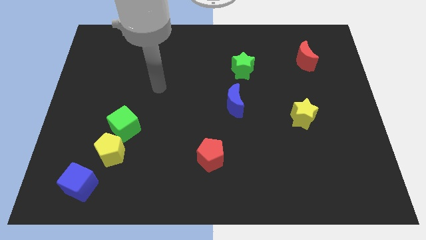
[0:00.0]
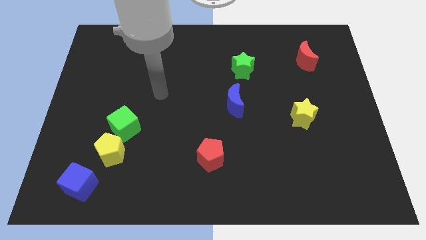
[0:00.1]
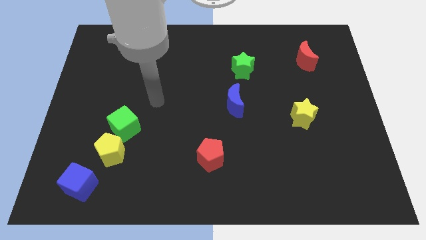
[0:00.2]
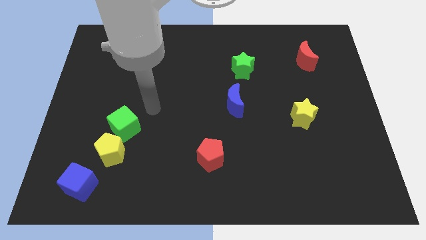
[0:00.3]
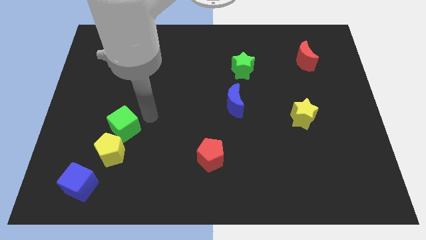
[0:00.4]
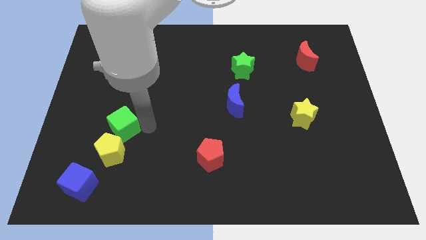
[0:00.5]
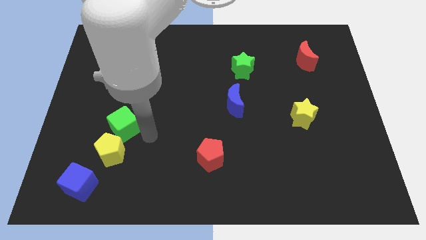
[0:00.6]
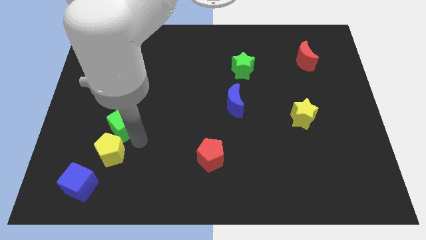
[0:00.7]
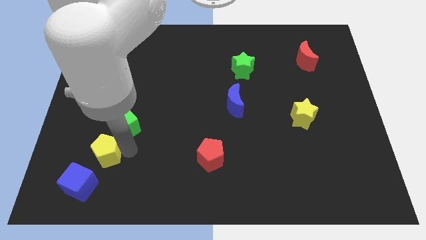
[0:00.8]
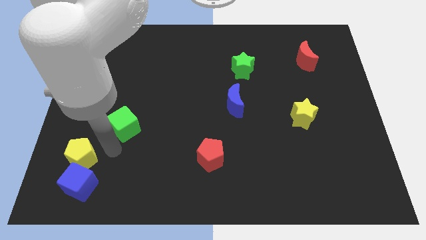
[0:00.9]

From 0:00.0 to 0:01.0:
move the green cube away from the yellow pentagon

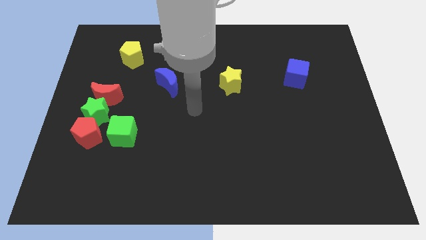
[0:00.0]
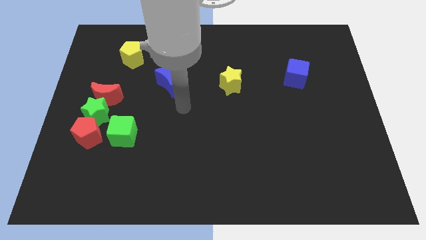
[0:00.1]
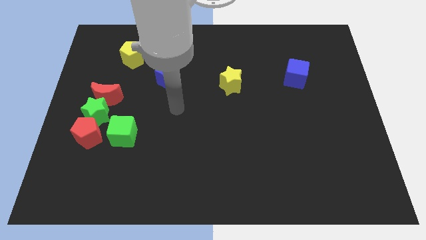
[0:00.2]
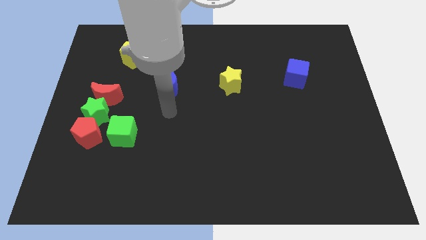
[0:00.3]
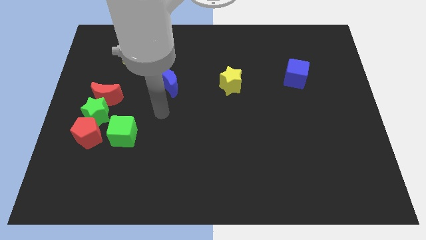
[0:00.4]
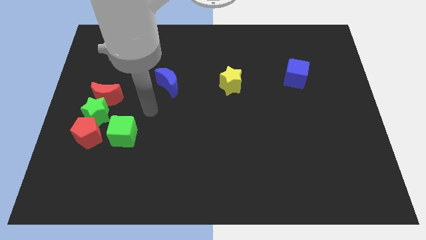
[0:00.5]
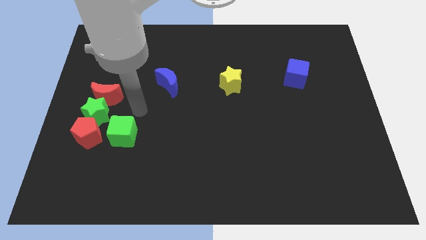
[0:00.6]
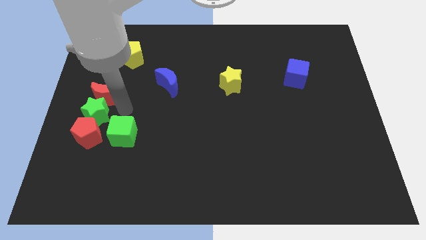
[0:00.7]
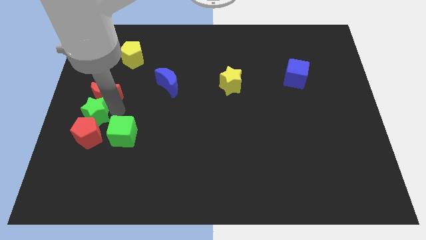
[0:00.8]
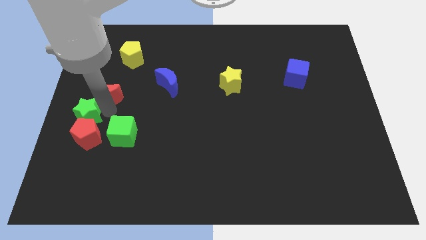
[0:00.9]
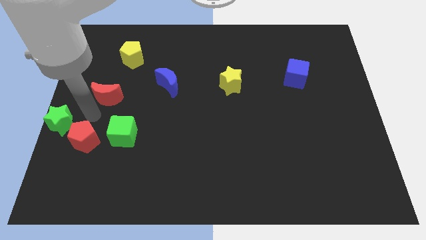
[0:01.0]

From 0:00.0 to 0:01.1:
separate the red moon from the green star

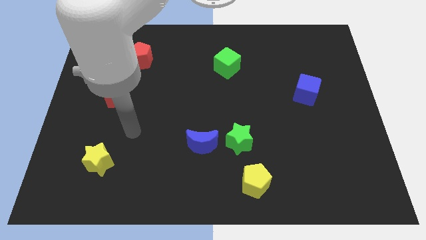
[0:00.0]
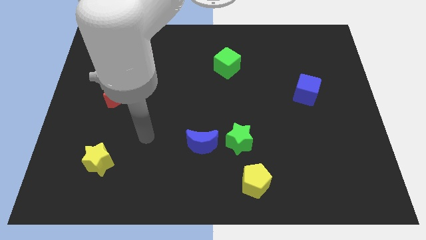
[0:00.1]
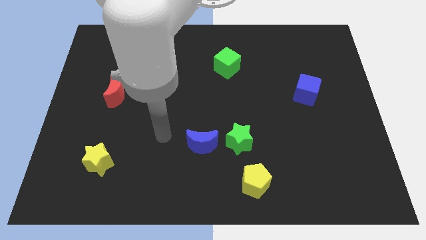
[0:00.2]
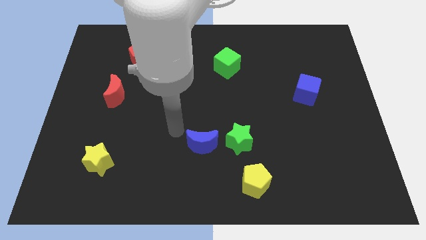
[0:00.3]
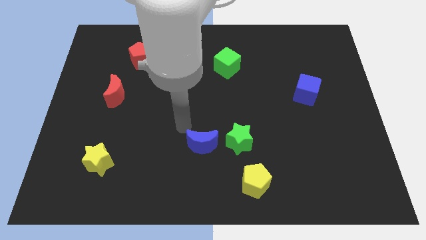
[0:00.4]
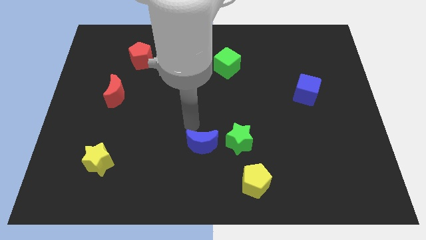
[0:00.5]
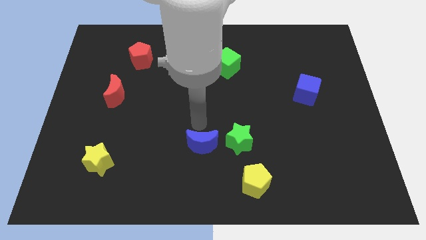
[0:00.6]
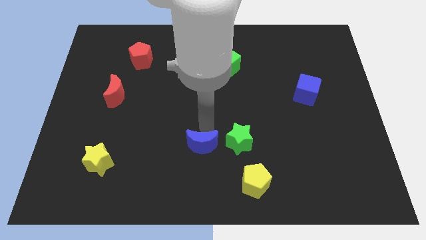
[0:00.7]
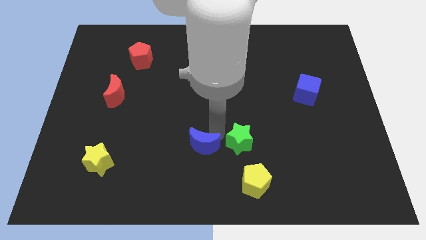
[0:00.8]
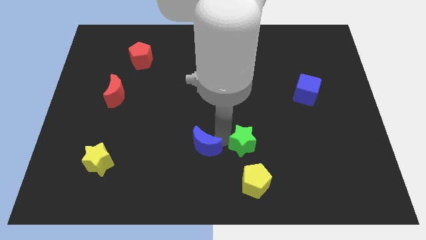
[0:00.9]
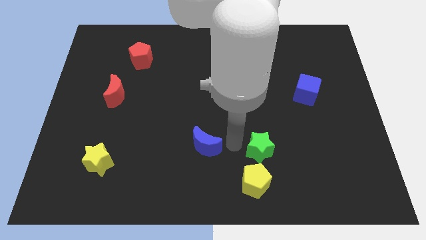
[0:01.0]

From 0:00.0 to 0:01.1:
separate the blue moon from the green star

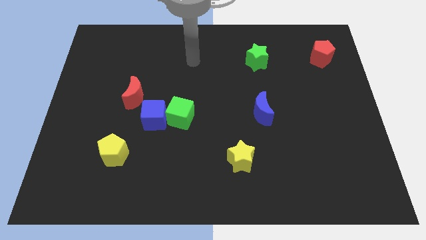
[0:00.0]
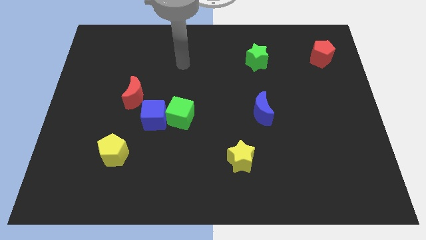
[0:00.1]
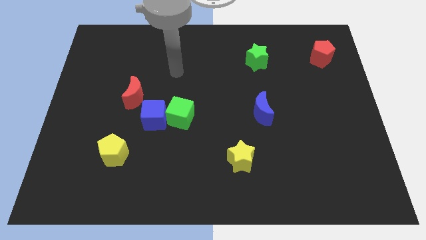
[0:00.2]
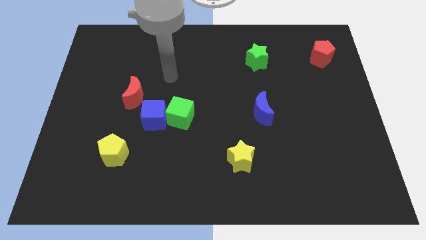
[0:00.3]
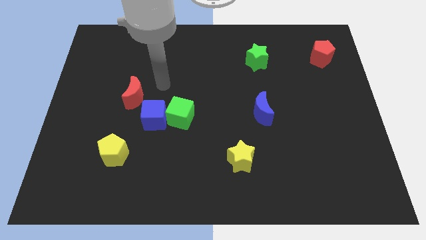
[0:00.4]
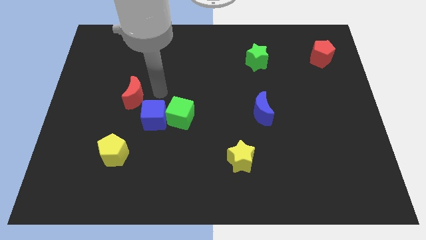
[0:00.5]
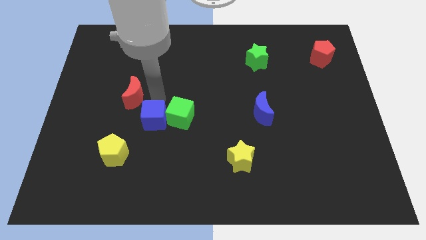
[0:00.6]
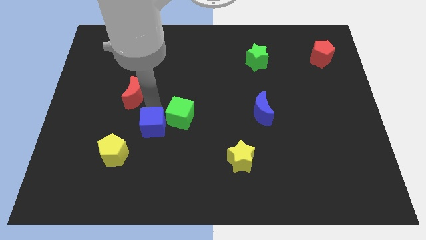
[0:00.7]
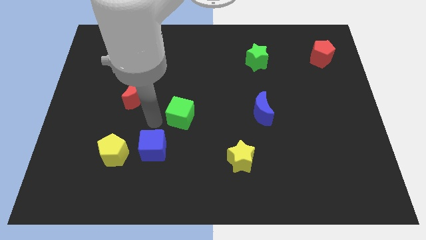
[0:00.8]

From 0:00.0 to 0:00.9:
separate the green cube from the blue cube

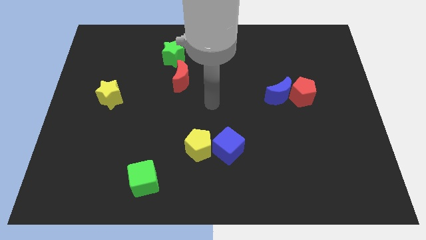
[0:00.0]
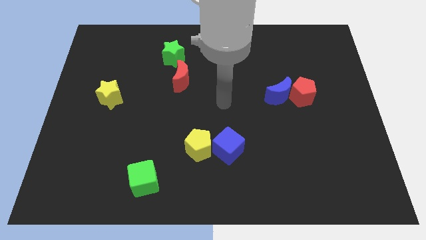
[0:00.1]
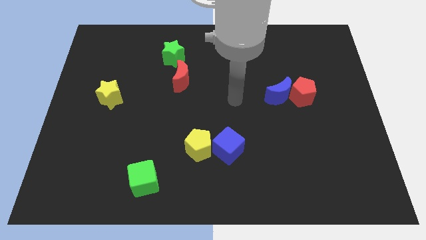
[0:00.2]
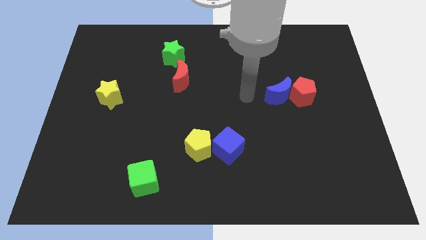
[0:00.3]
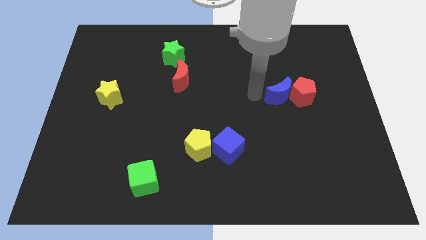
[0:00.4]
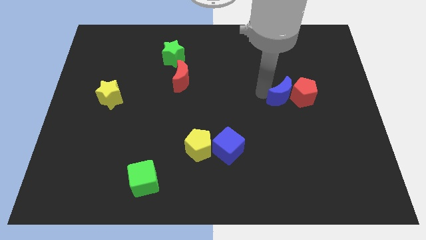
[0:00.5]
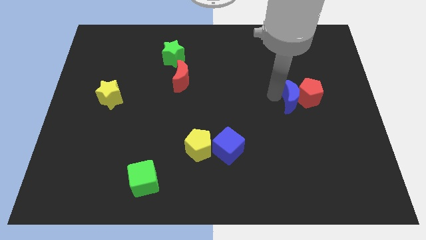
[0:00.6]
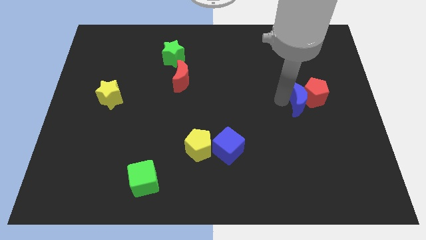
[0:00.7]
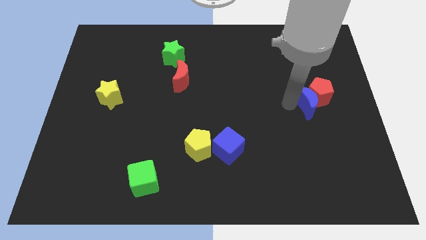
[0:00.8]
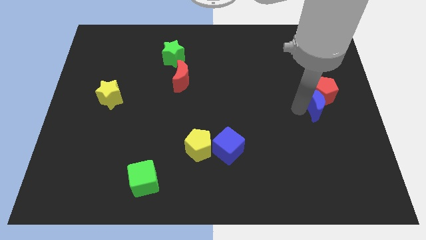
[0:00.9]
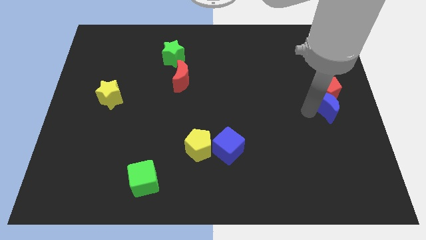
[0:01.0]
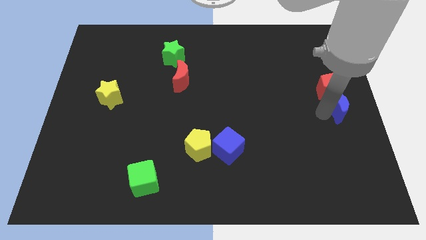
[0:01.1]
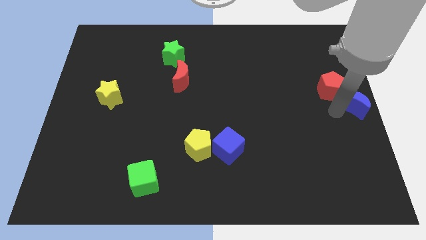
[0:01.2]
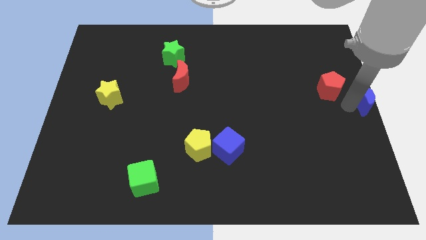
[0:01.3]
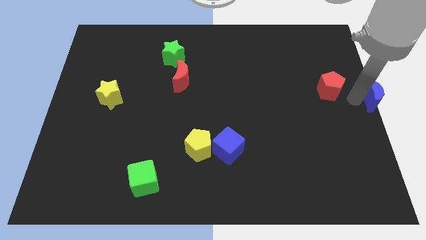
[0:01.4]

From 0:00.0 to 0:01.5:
move the red pentagon away from the blue moon

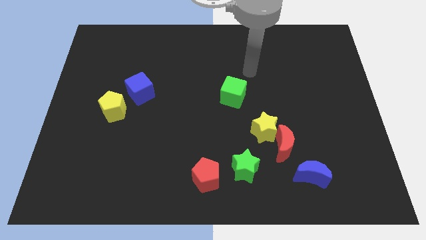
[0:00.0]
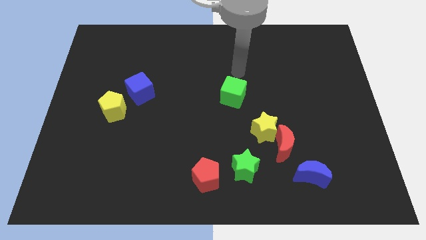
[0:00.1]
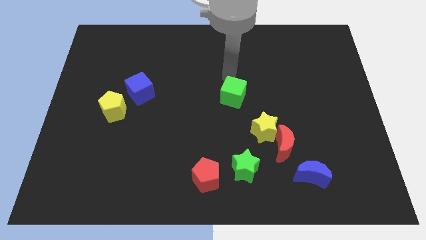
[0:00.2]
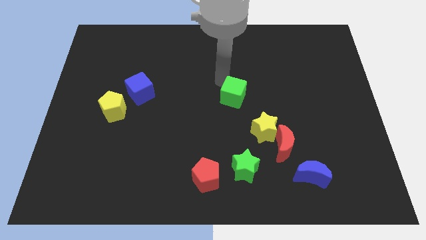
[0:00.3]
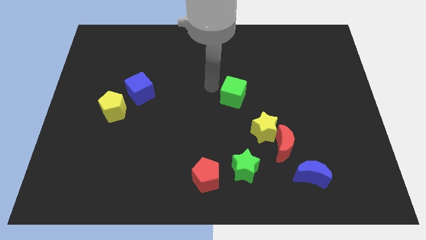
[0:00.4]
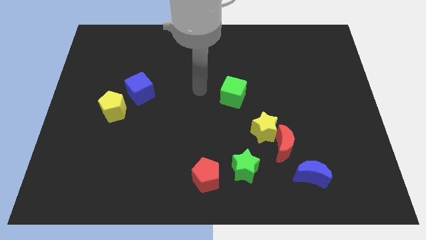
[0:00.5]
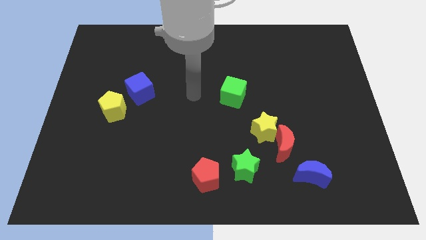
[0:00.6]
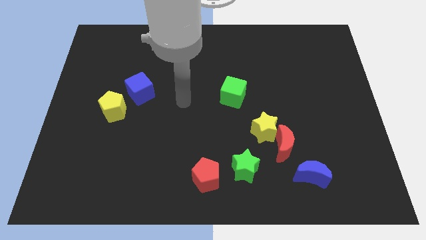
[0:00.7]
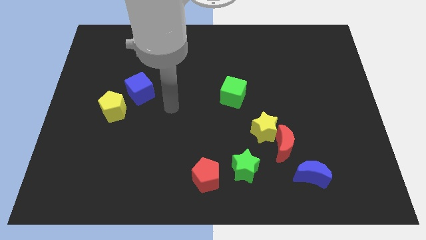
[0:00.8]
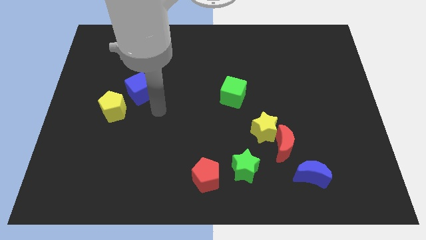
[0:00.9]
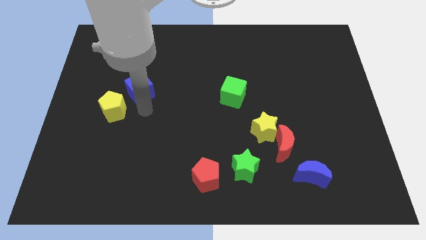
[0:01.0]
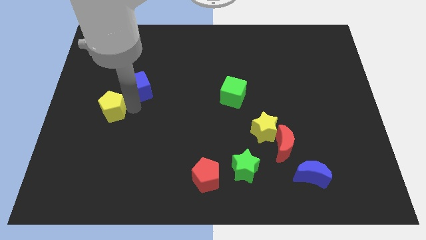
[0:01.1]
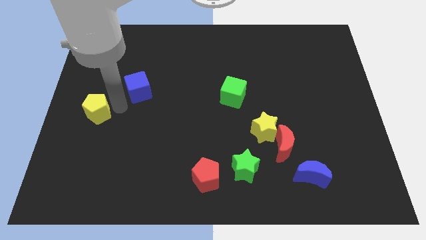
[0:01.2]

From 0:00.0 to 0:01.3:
pull the blue cube apart from the yellow pentagon

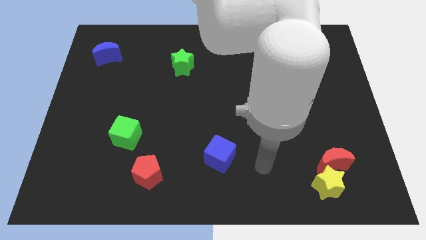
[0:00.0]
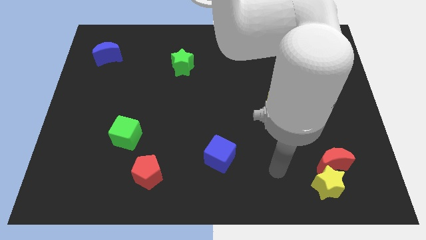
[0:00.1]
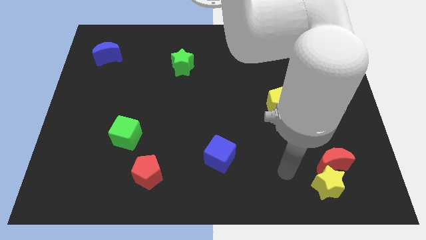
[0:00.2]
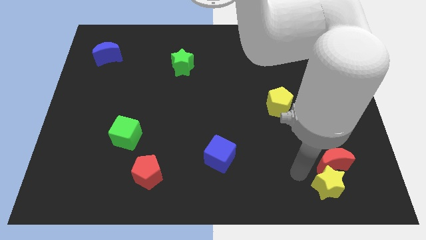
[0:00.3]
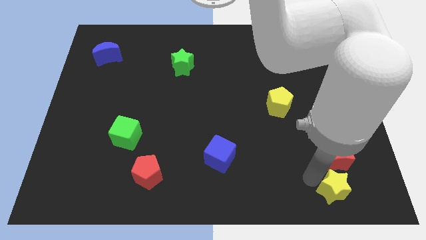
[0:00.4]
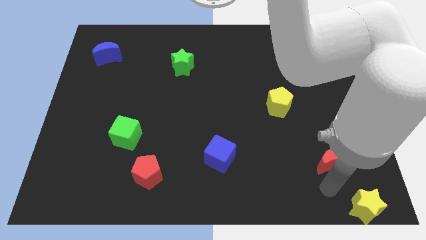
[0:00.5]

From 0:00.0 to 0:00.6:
pull the red moon apart from the yellow star

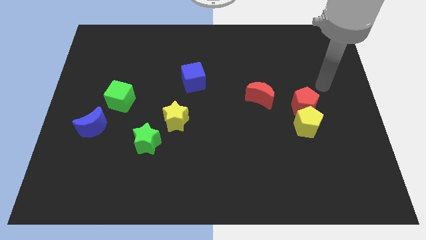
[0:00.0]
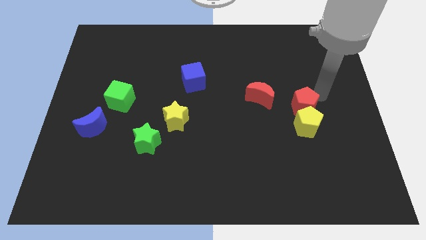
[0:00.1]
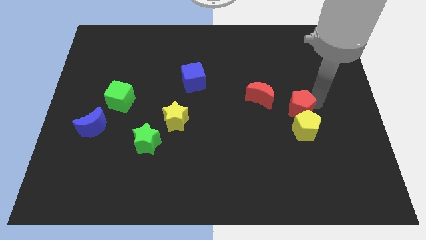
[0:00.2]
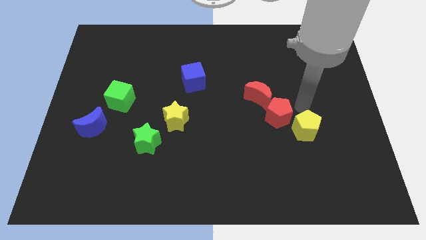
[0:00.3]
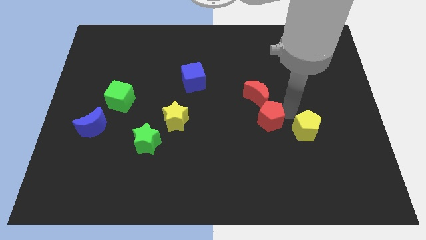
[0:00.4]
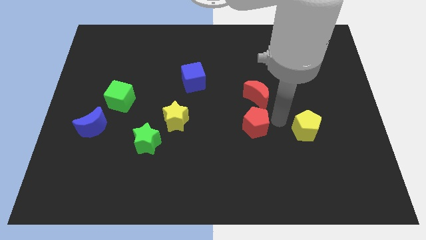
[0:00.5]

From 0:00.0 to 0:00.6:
move the yellow pentagon away from the red pentagon

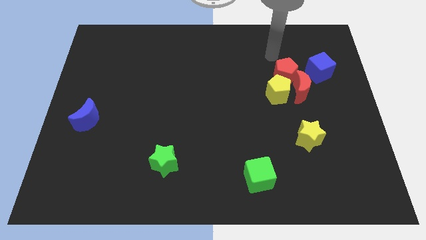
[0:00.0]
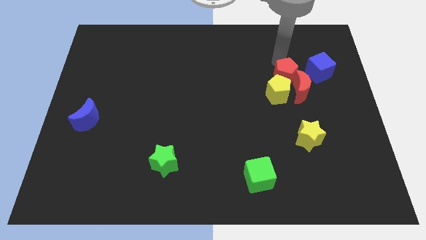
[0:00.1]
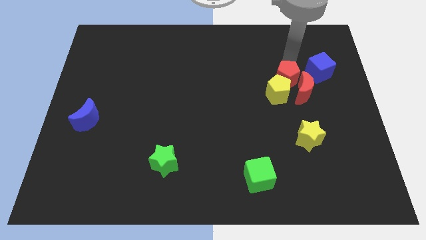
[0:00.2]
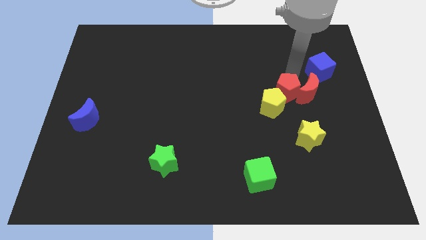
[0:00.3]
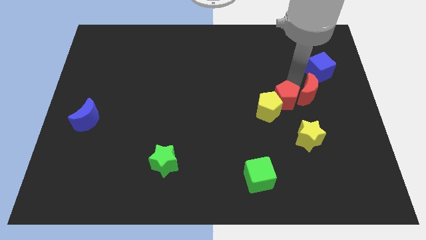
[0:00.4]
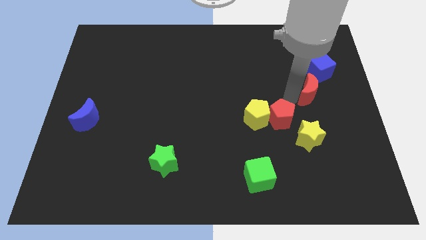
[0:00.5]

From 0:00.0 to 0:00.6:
separate the yellow pentagon from the red moon and red pentagon

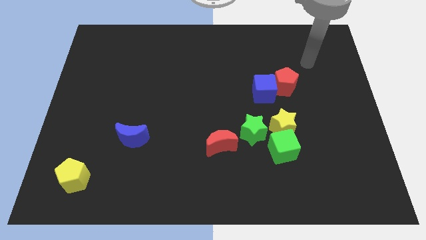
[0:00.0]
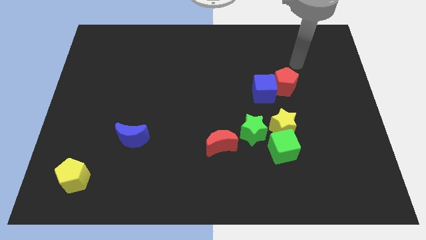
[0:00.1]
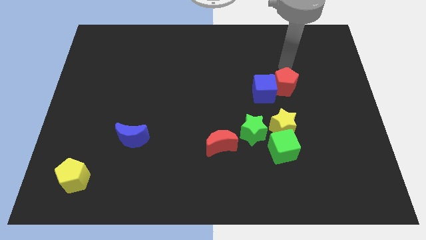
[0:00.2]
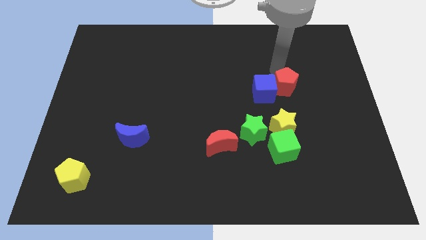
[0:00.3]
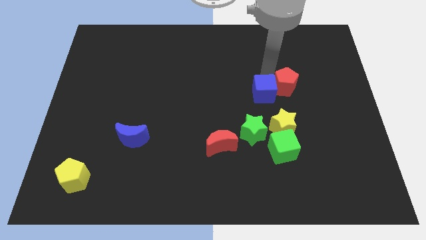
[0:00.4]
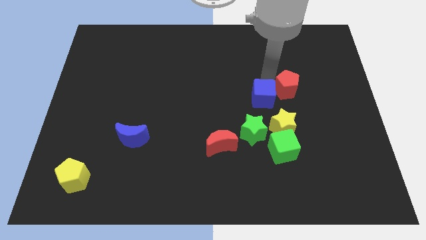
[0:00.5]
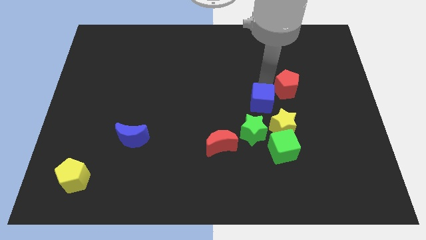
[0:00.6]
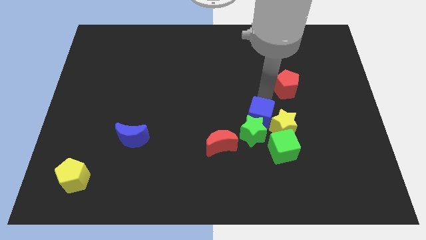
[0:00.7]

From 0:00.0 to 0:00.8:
move the red pentagon away from the blue cube
